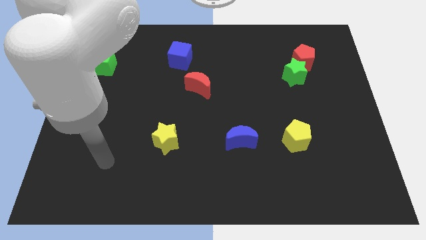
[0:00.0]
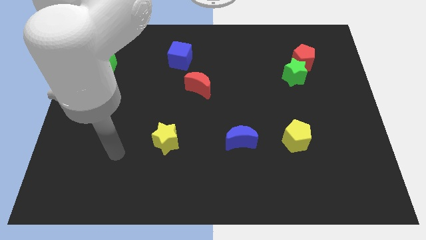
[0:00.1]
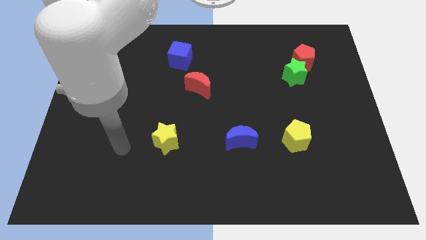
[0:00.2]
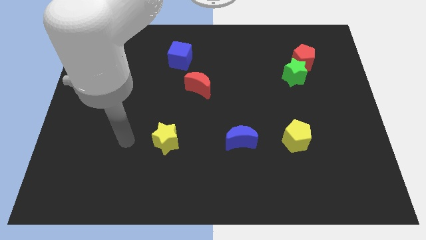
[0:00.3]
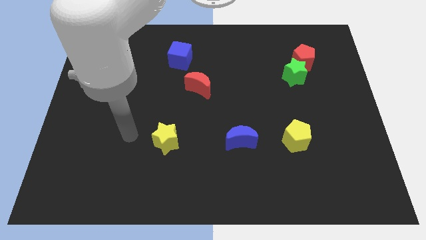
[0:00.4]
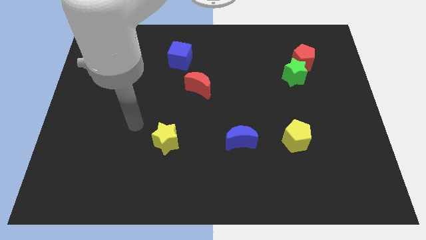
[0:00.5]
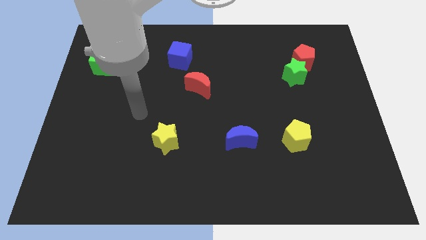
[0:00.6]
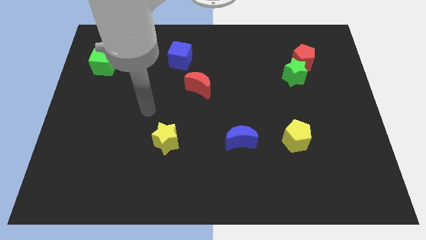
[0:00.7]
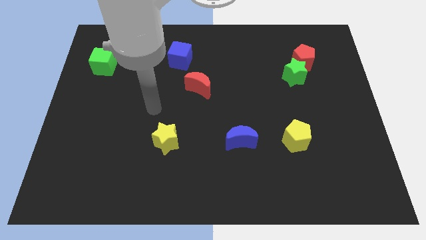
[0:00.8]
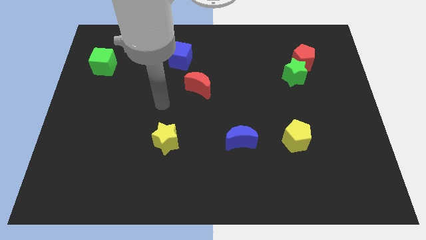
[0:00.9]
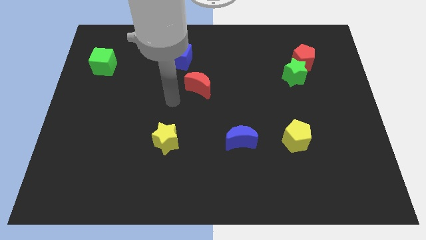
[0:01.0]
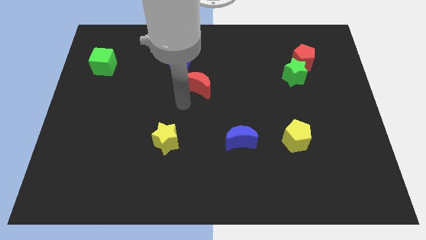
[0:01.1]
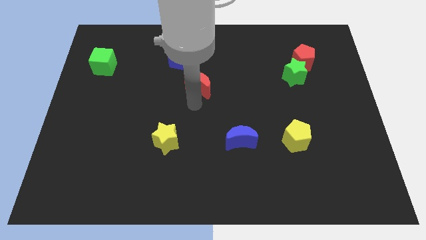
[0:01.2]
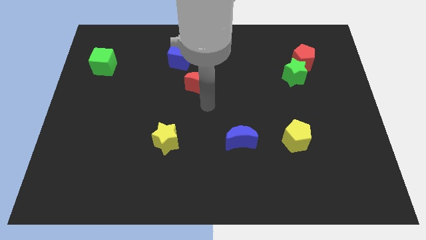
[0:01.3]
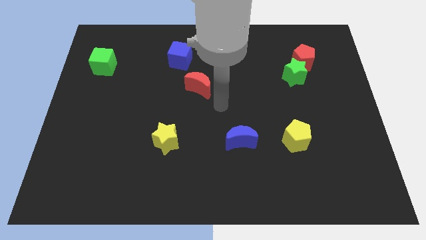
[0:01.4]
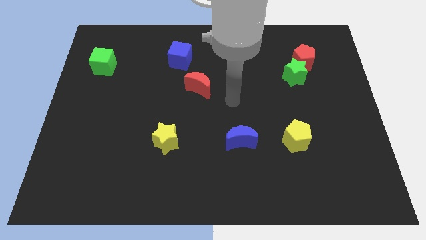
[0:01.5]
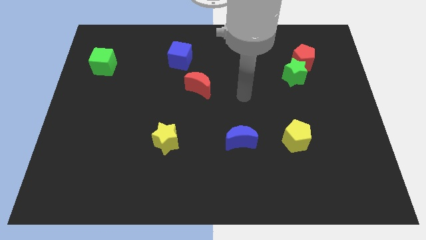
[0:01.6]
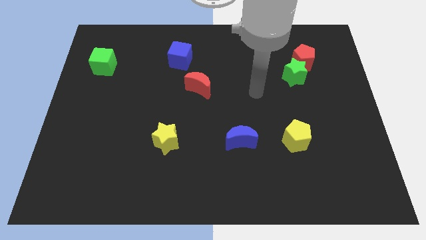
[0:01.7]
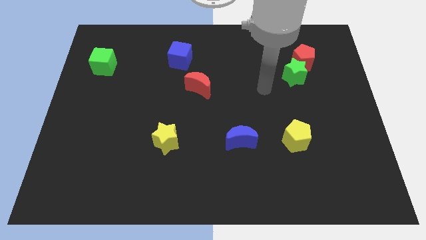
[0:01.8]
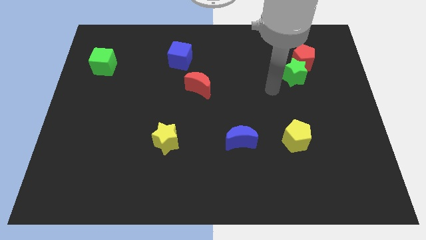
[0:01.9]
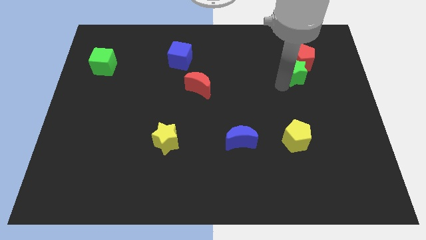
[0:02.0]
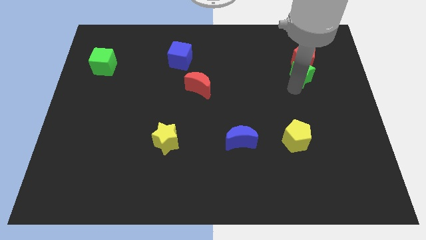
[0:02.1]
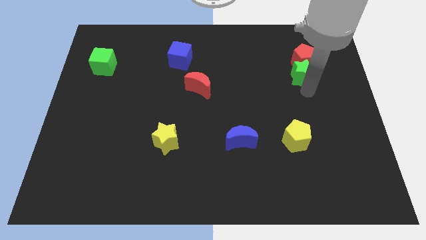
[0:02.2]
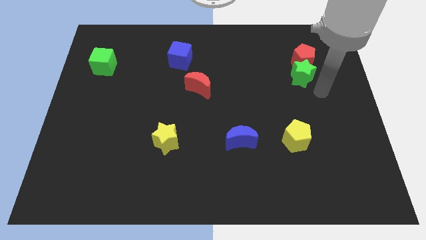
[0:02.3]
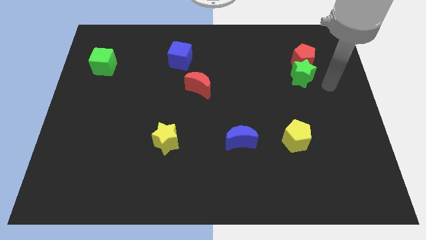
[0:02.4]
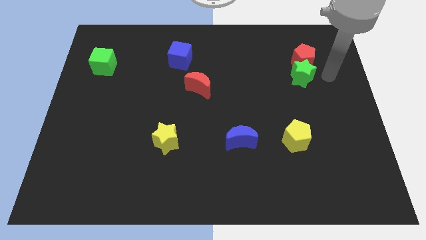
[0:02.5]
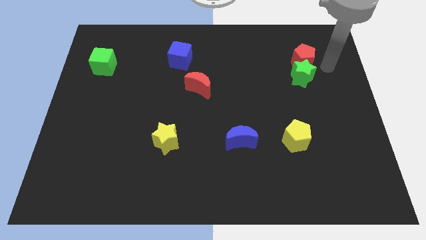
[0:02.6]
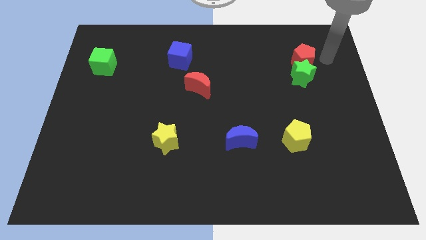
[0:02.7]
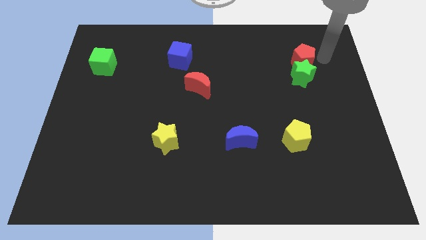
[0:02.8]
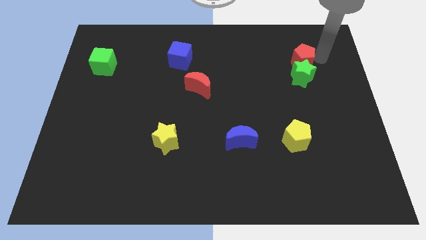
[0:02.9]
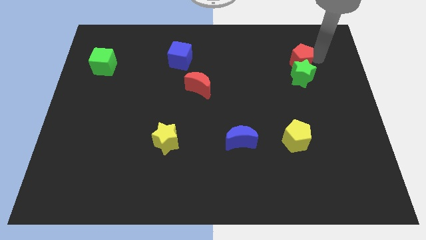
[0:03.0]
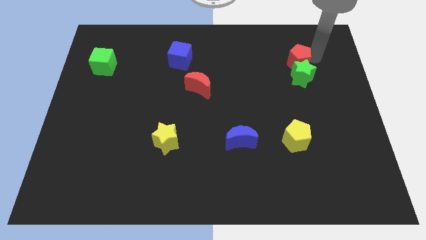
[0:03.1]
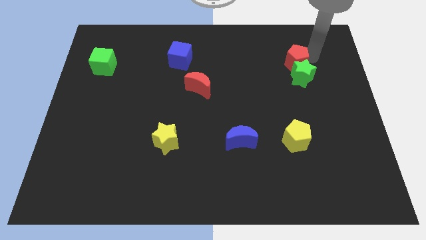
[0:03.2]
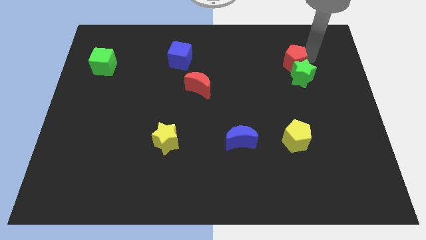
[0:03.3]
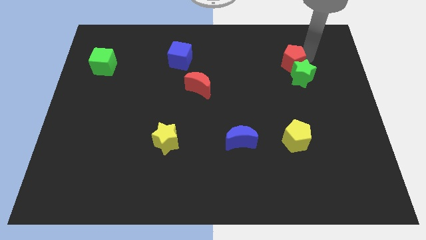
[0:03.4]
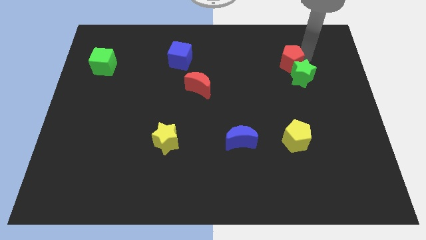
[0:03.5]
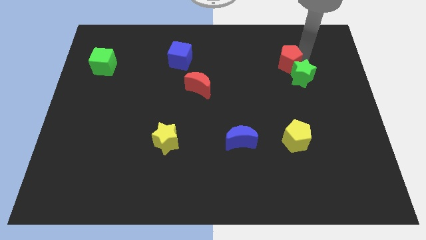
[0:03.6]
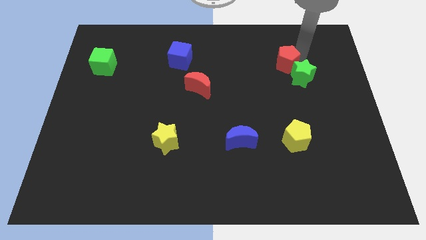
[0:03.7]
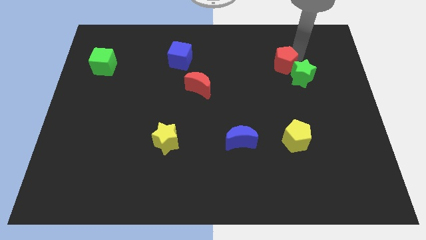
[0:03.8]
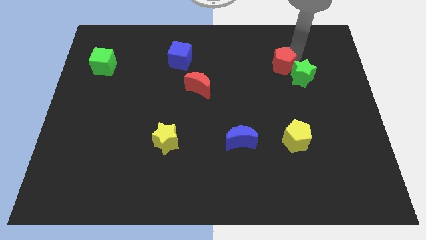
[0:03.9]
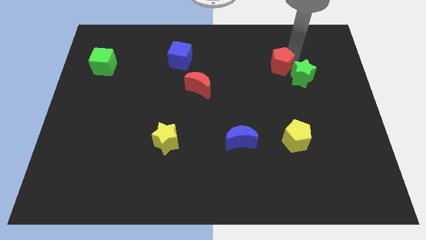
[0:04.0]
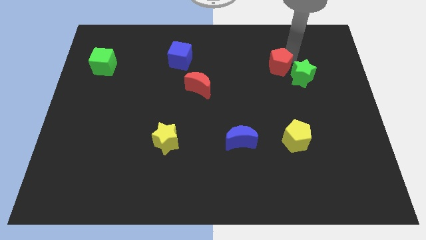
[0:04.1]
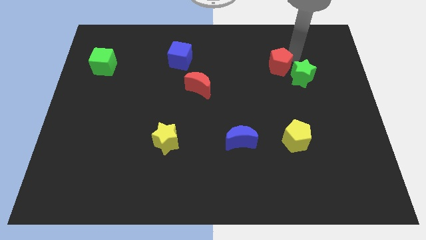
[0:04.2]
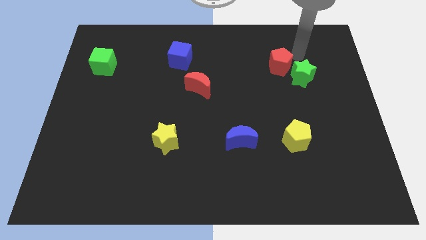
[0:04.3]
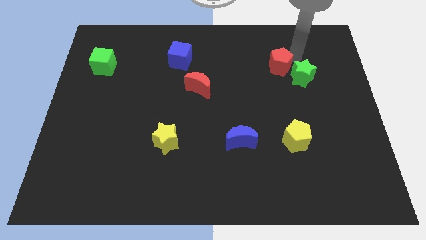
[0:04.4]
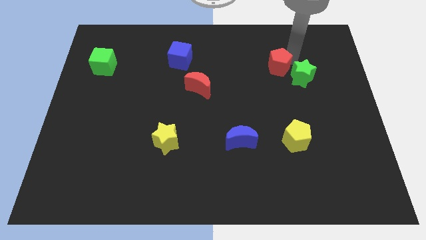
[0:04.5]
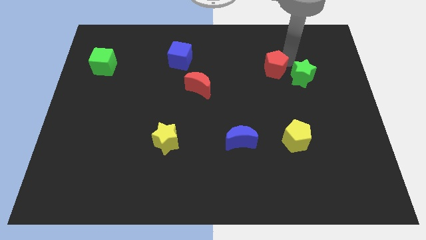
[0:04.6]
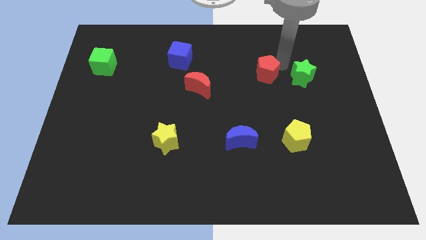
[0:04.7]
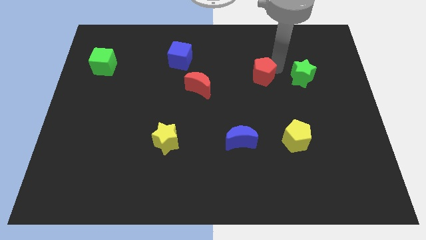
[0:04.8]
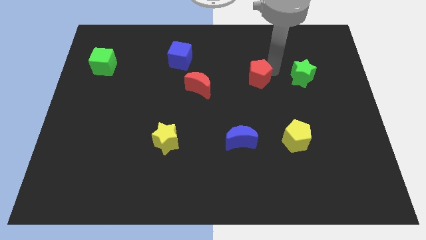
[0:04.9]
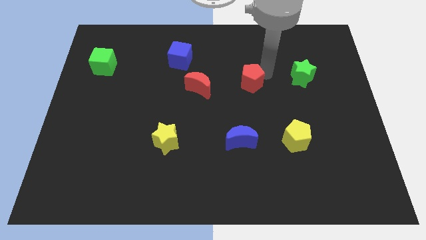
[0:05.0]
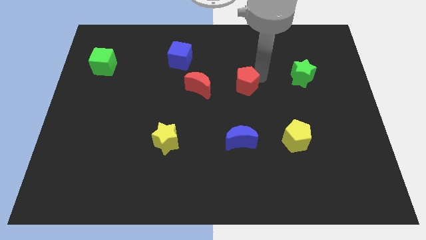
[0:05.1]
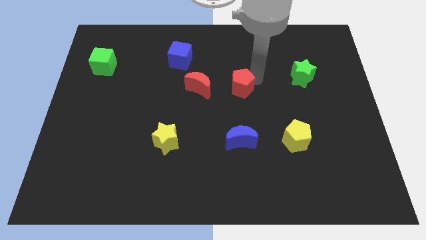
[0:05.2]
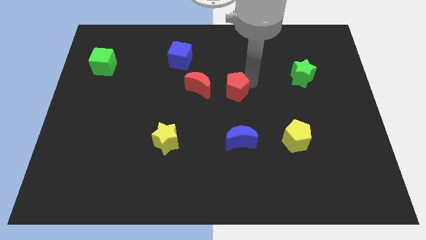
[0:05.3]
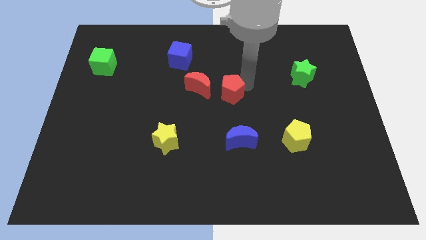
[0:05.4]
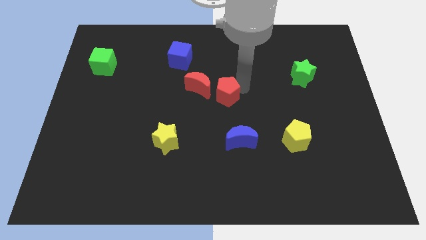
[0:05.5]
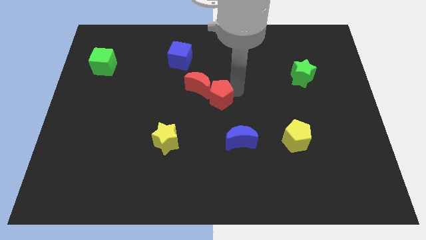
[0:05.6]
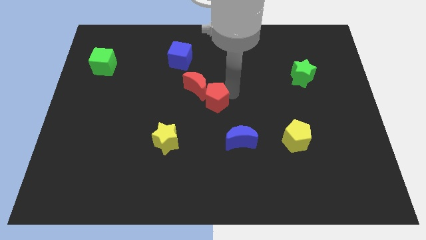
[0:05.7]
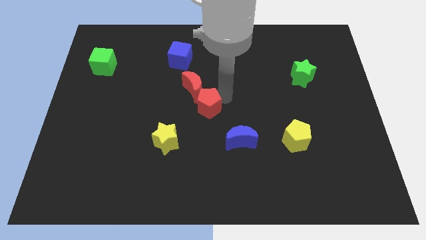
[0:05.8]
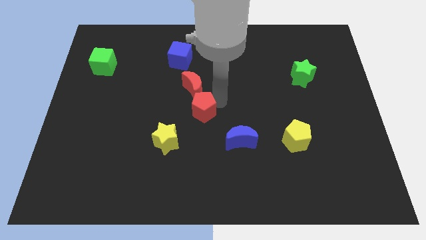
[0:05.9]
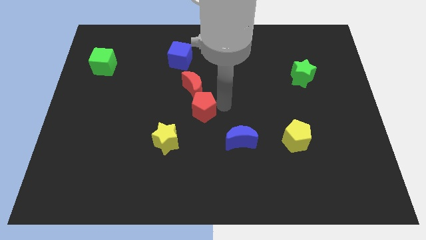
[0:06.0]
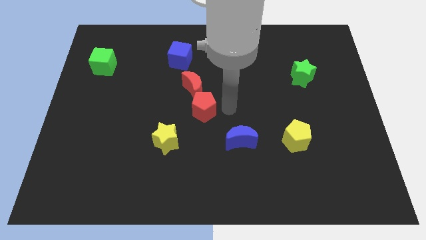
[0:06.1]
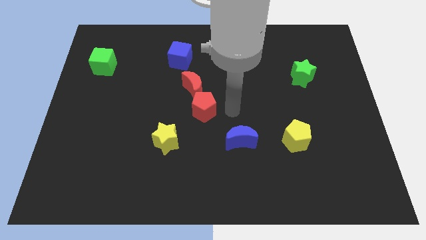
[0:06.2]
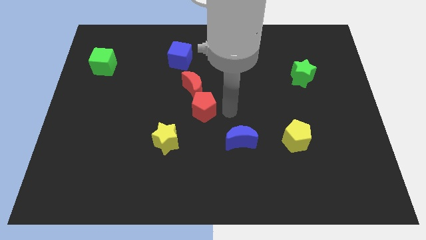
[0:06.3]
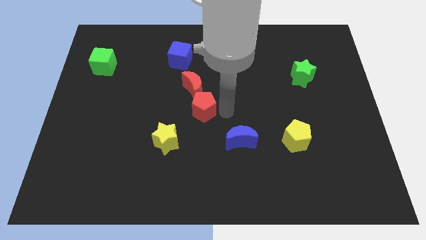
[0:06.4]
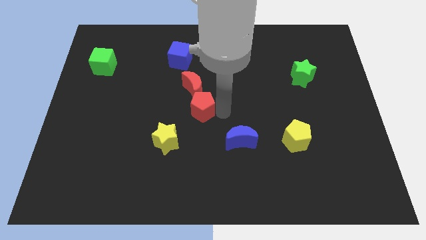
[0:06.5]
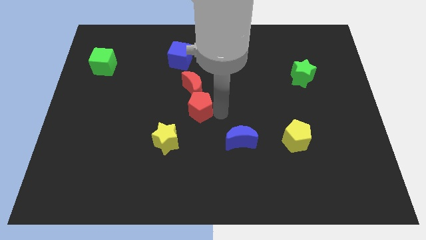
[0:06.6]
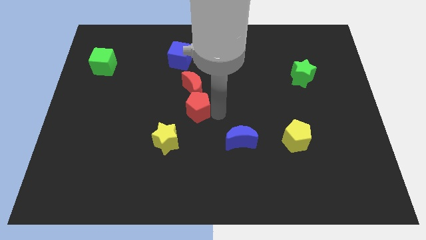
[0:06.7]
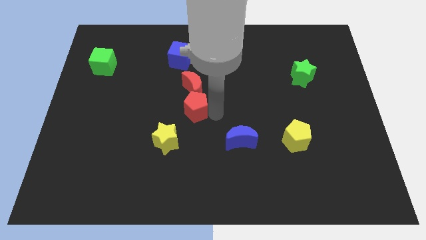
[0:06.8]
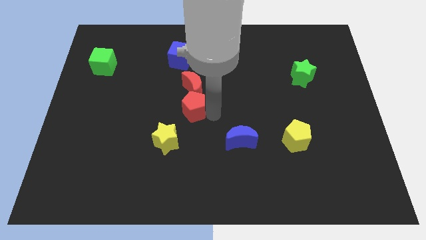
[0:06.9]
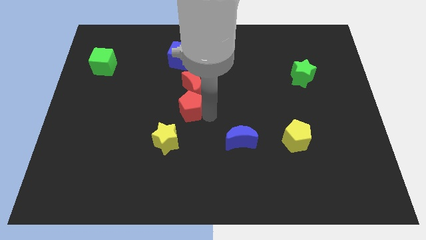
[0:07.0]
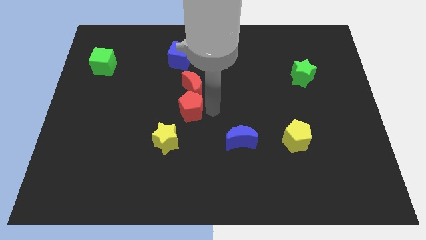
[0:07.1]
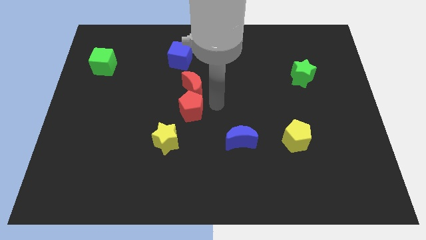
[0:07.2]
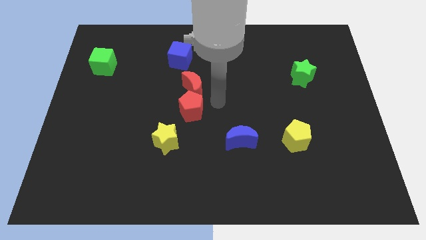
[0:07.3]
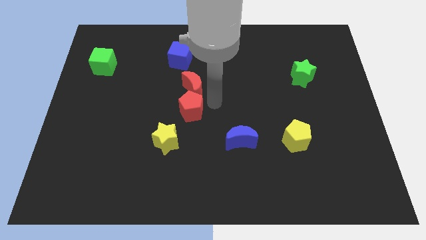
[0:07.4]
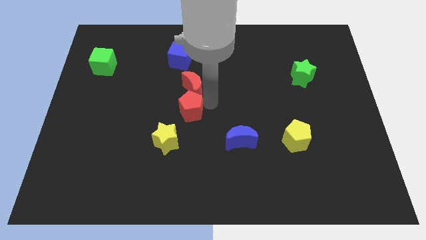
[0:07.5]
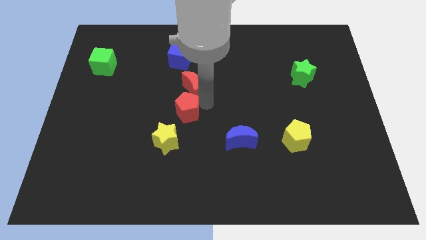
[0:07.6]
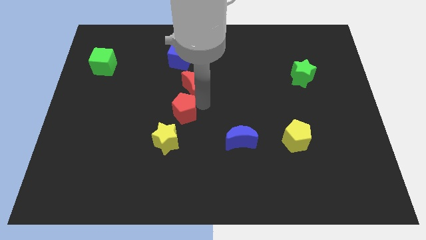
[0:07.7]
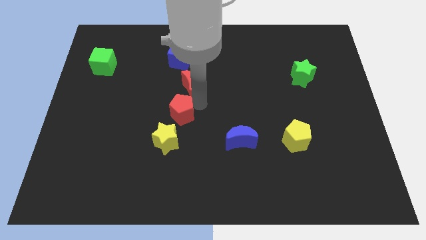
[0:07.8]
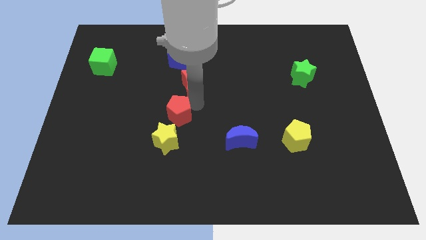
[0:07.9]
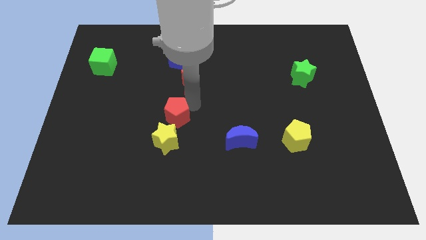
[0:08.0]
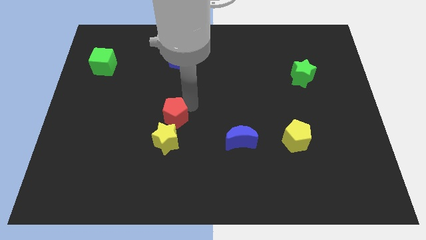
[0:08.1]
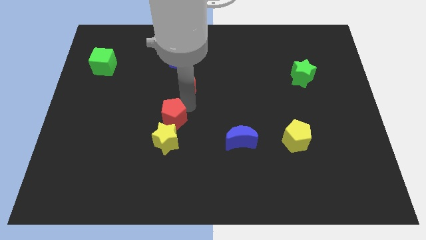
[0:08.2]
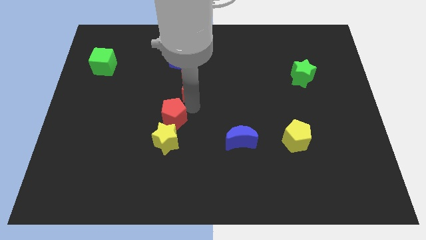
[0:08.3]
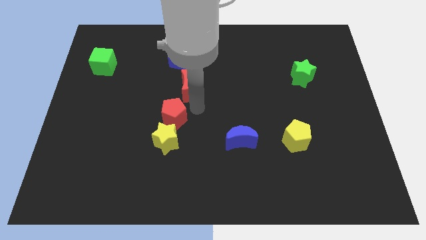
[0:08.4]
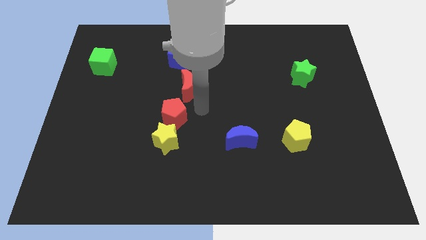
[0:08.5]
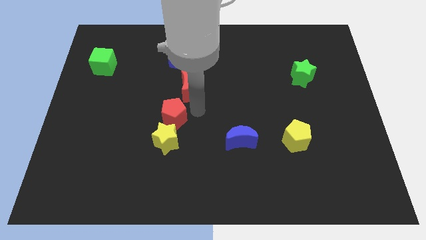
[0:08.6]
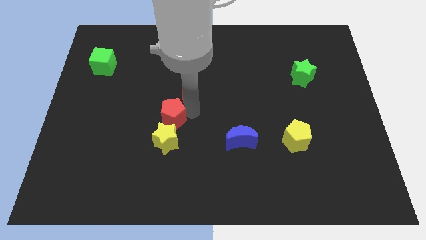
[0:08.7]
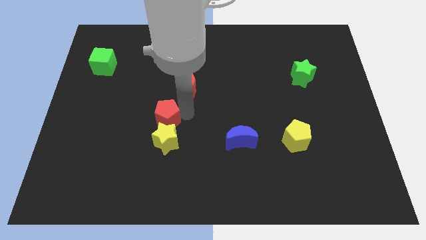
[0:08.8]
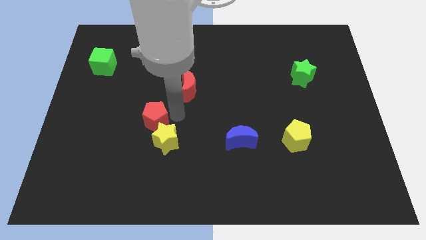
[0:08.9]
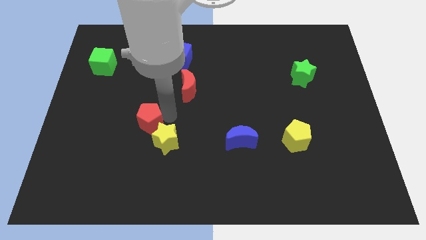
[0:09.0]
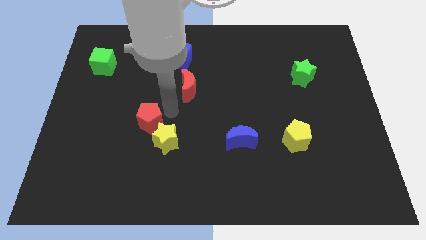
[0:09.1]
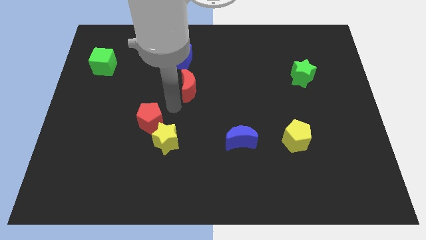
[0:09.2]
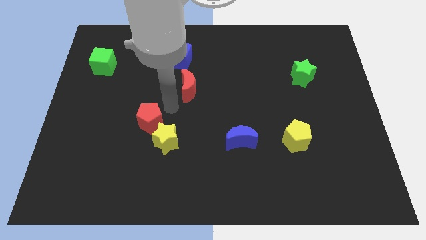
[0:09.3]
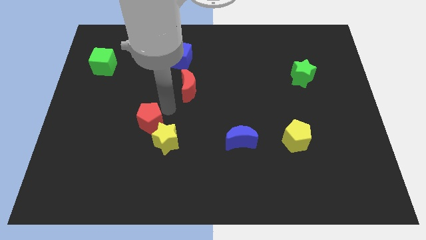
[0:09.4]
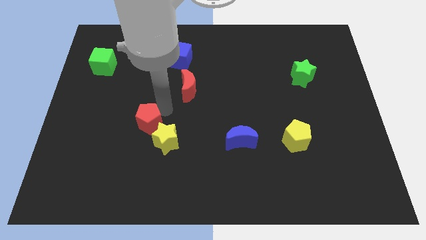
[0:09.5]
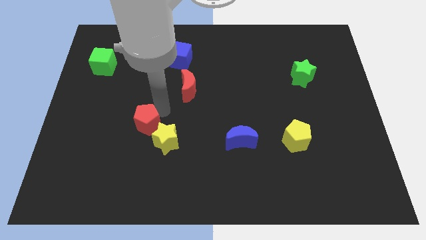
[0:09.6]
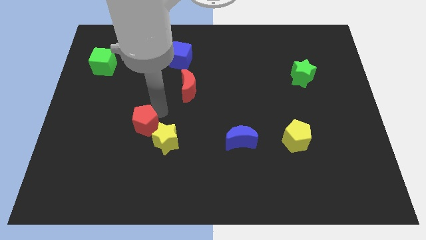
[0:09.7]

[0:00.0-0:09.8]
push the red pentagon left of the yellow star
